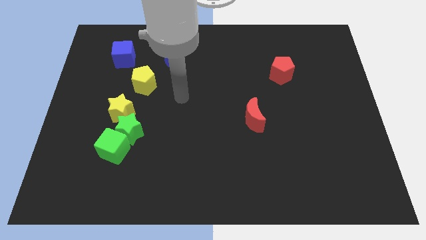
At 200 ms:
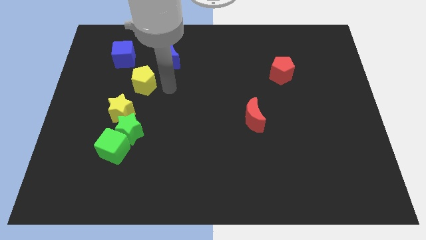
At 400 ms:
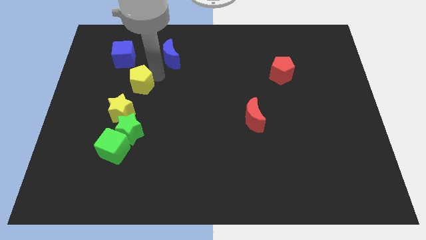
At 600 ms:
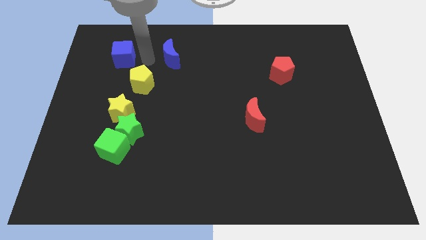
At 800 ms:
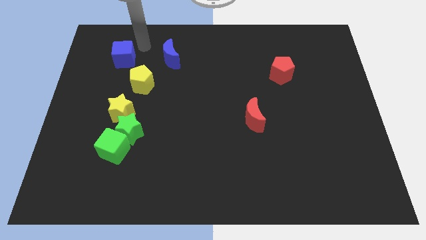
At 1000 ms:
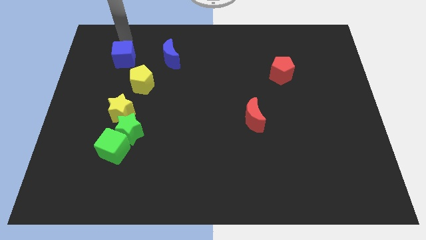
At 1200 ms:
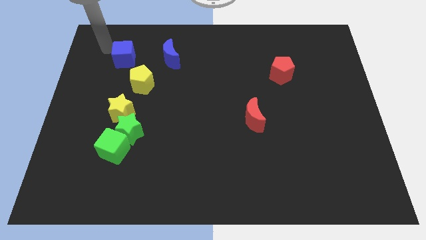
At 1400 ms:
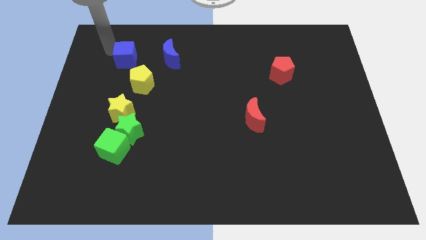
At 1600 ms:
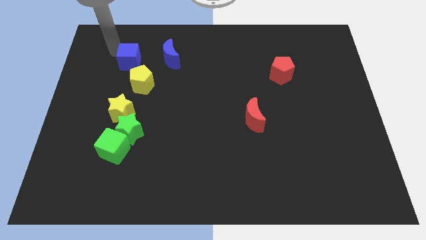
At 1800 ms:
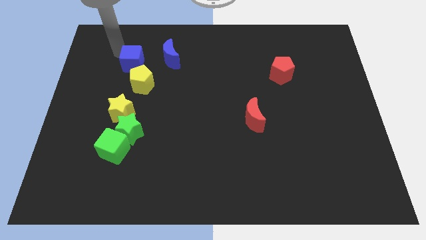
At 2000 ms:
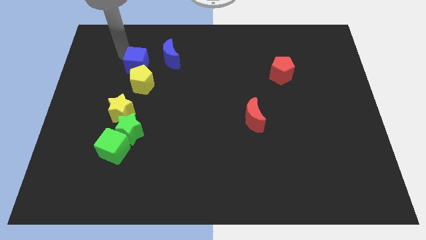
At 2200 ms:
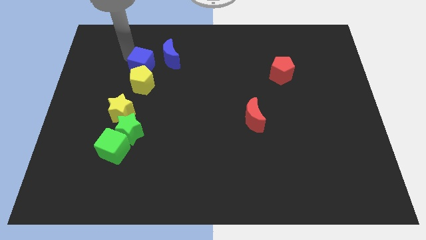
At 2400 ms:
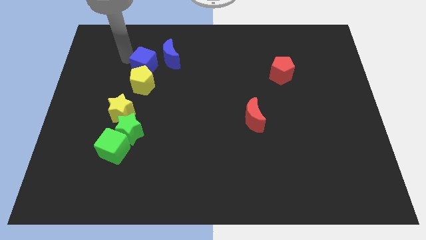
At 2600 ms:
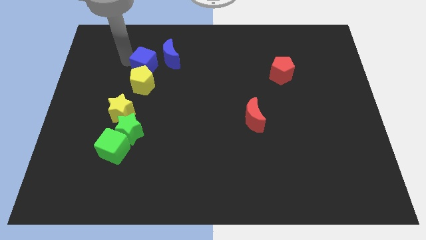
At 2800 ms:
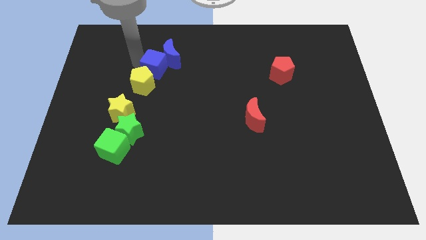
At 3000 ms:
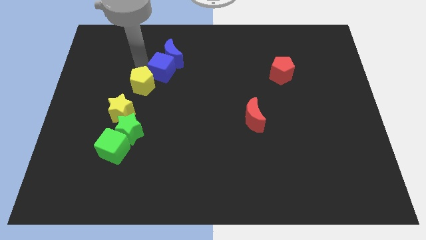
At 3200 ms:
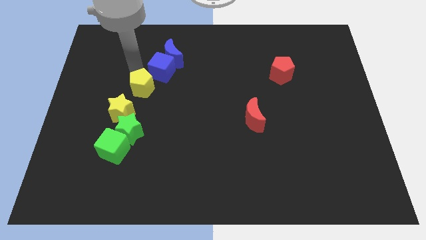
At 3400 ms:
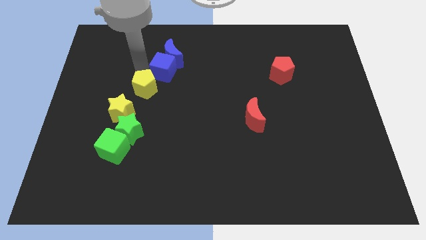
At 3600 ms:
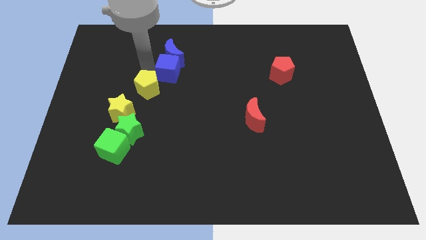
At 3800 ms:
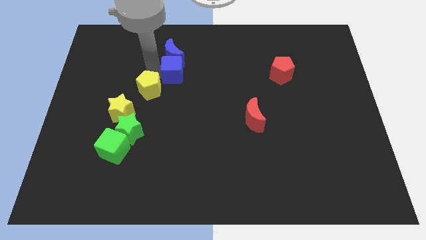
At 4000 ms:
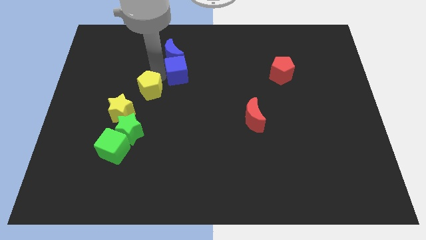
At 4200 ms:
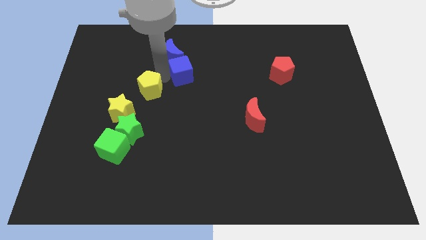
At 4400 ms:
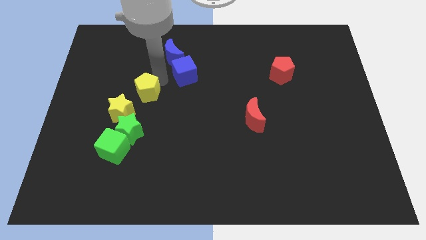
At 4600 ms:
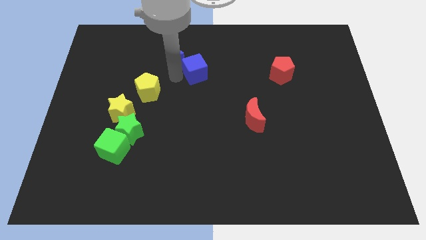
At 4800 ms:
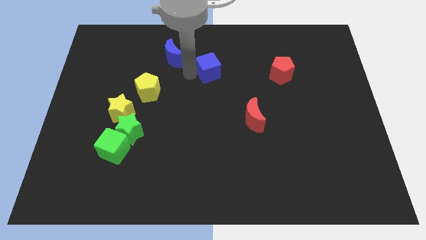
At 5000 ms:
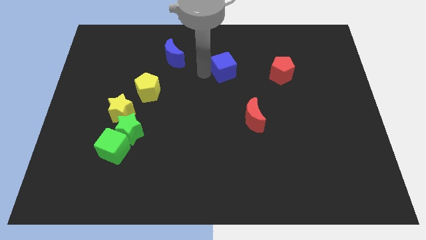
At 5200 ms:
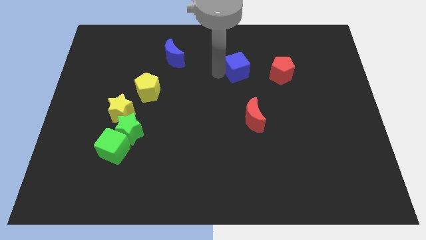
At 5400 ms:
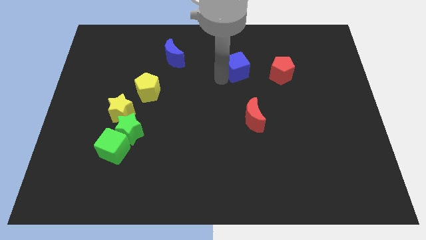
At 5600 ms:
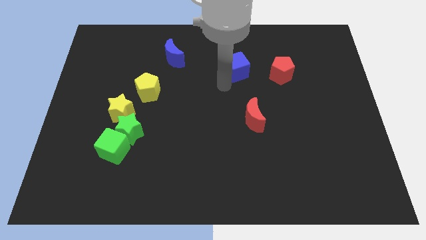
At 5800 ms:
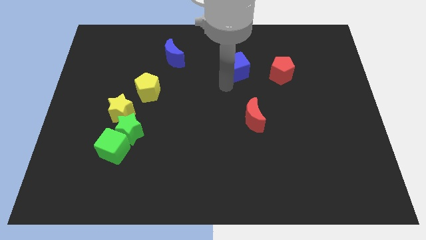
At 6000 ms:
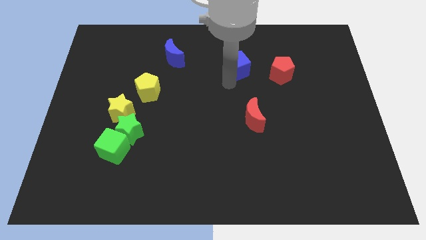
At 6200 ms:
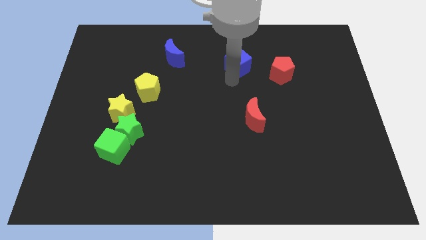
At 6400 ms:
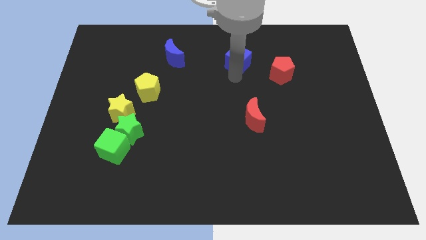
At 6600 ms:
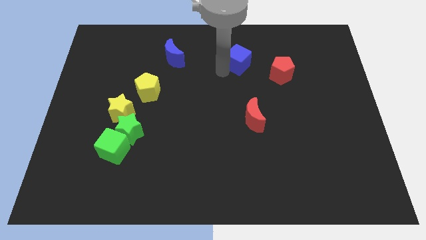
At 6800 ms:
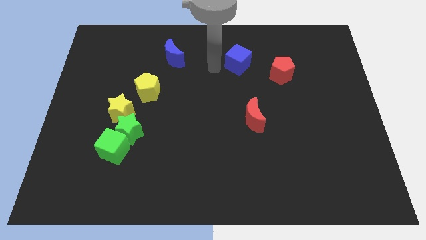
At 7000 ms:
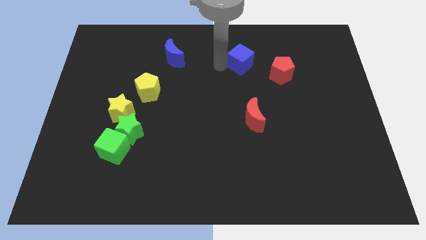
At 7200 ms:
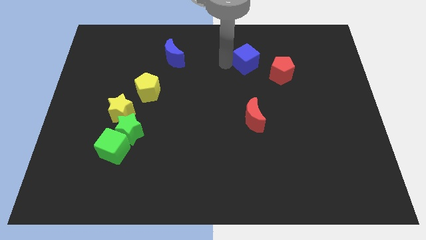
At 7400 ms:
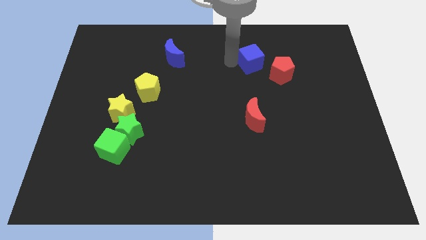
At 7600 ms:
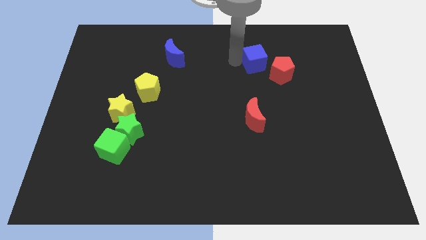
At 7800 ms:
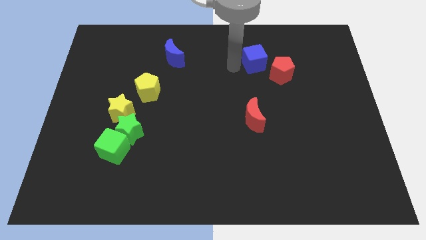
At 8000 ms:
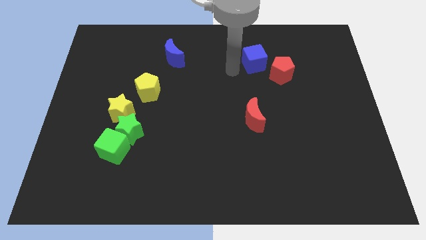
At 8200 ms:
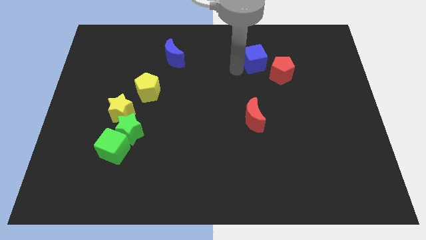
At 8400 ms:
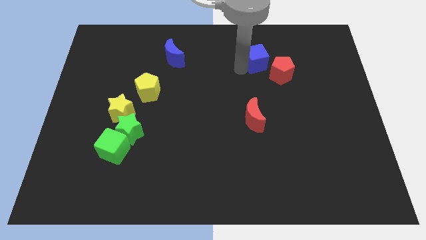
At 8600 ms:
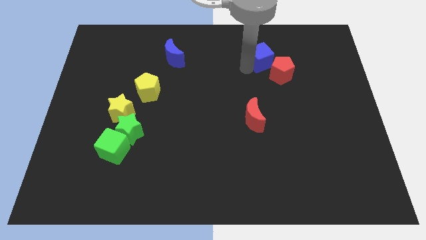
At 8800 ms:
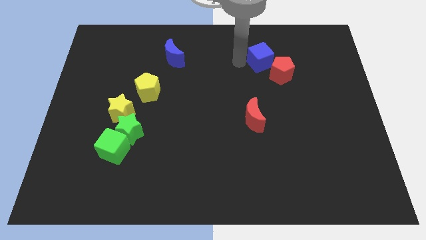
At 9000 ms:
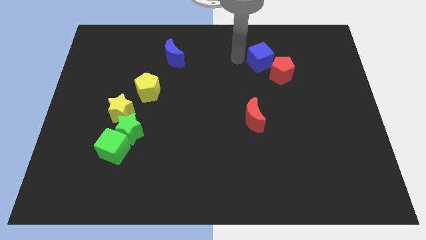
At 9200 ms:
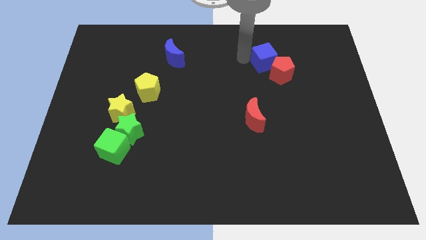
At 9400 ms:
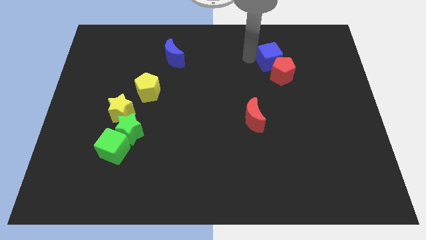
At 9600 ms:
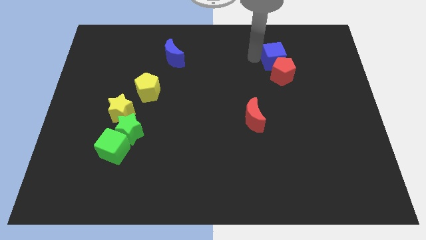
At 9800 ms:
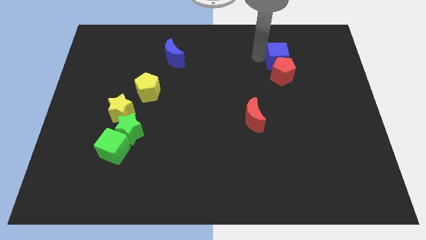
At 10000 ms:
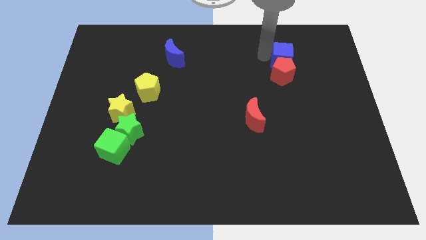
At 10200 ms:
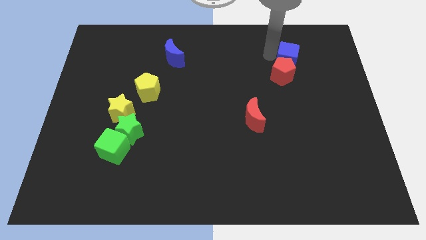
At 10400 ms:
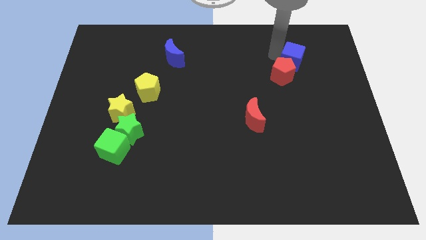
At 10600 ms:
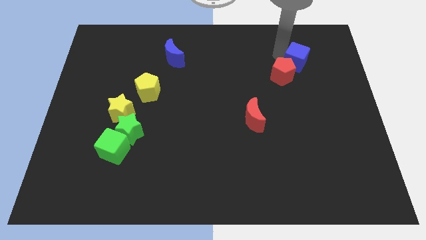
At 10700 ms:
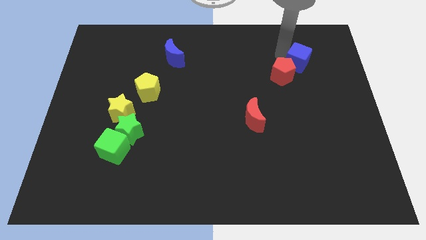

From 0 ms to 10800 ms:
put the blue cube to the right side of the red pentagon

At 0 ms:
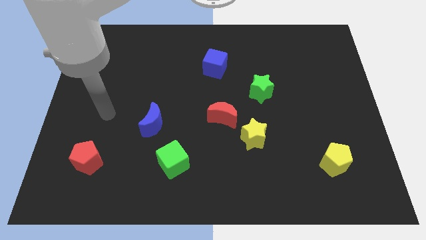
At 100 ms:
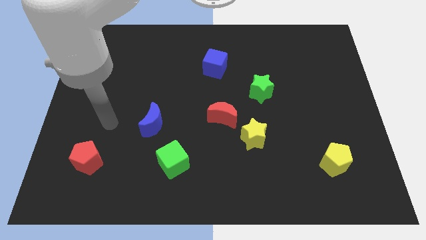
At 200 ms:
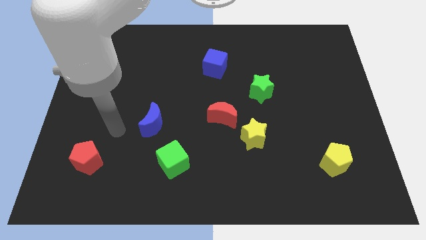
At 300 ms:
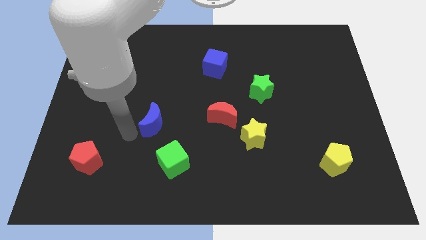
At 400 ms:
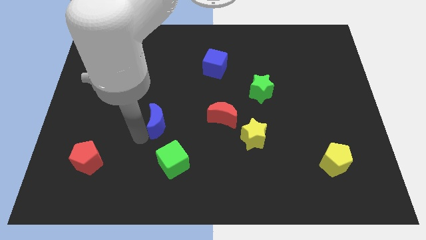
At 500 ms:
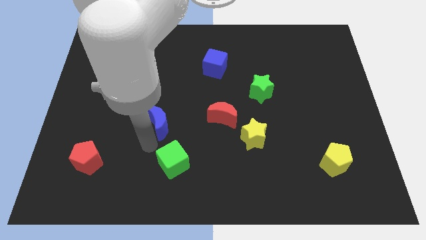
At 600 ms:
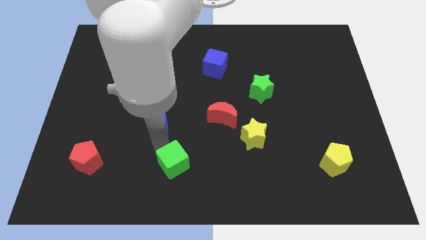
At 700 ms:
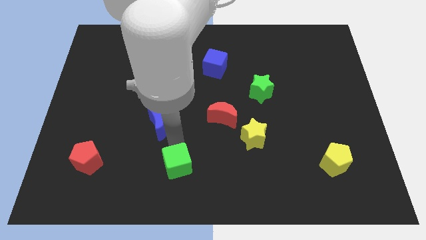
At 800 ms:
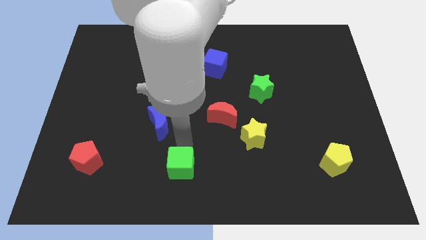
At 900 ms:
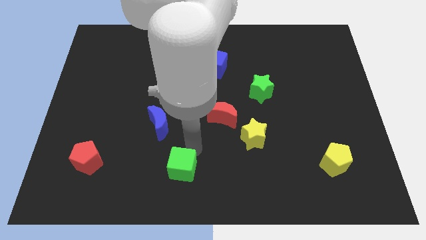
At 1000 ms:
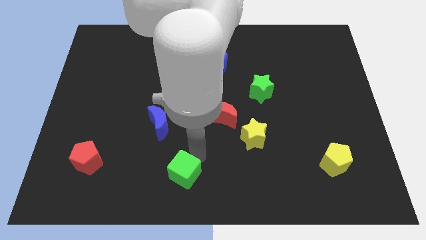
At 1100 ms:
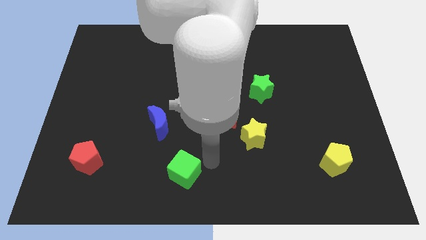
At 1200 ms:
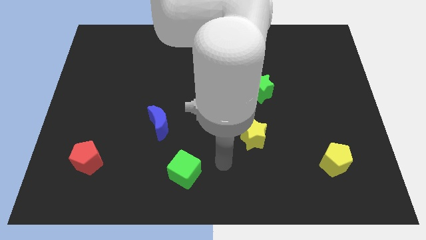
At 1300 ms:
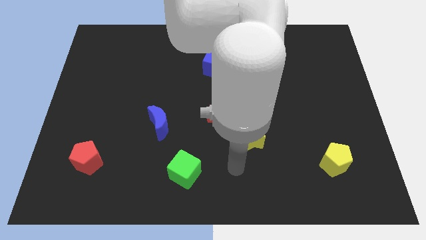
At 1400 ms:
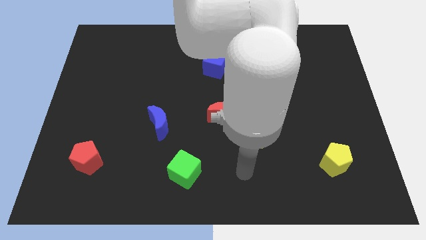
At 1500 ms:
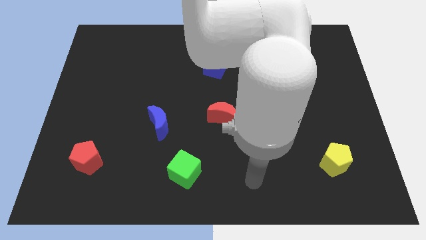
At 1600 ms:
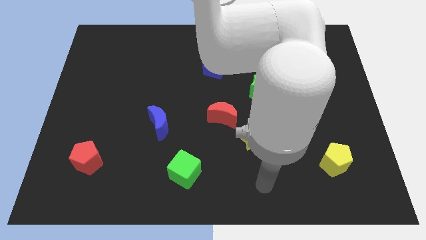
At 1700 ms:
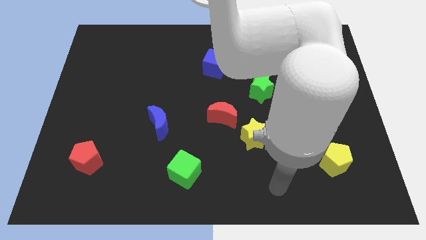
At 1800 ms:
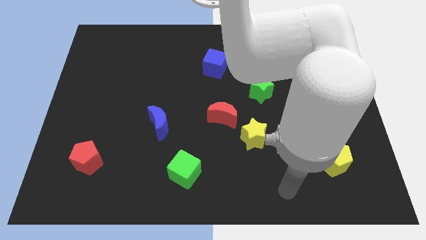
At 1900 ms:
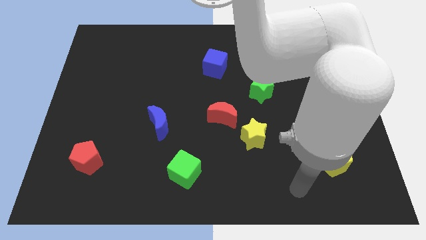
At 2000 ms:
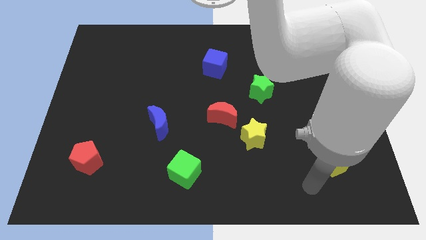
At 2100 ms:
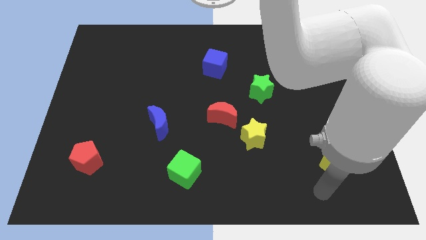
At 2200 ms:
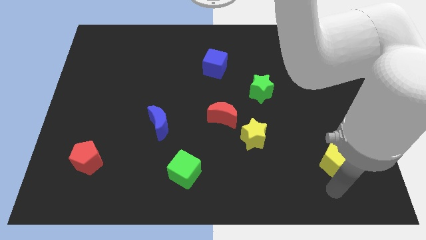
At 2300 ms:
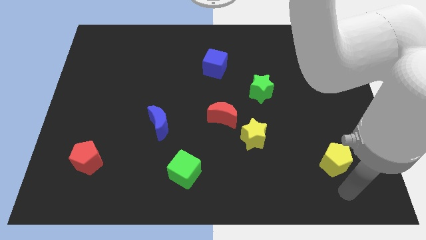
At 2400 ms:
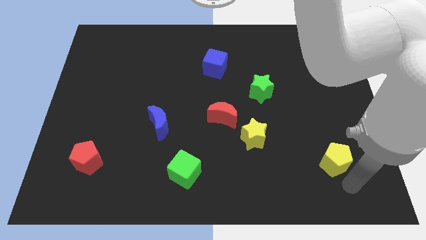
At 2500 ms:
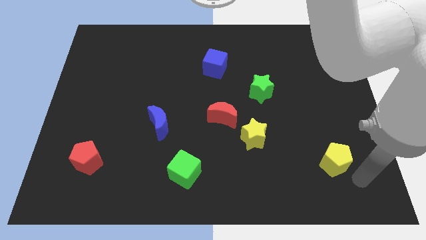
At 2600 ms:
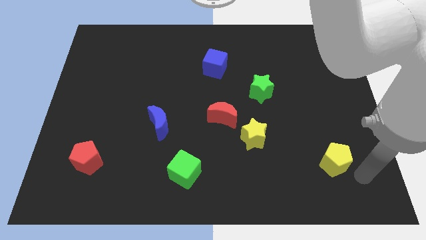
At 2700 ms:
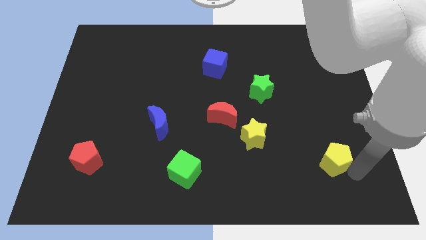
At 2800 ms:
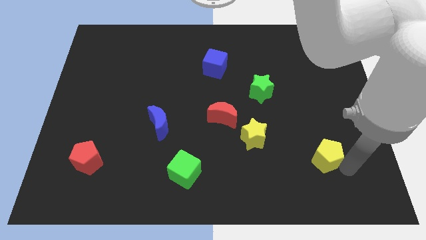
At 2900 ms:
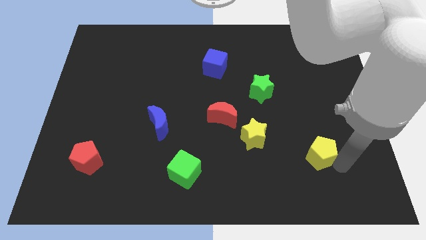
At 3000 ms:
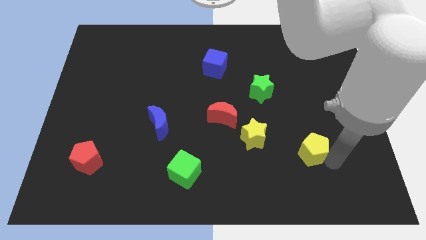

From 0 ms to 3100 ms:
slide the yellow pentagon just right of the yellow star
